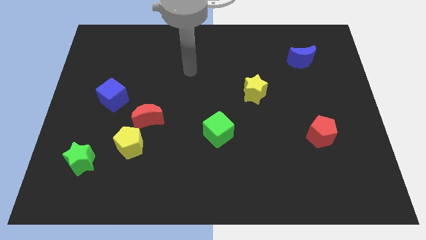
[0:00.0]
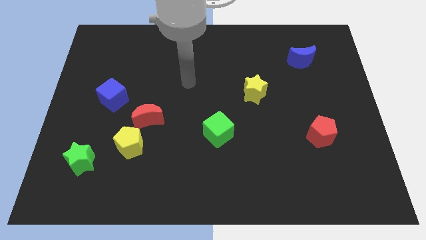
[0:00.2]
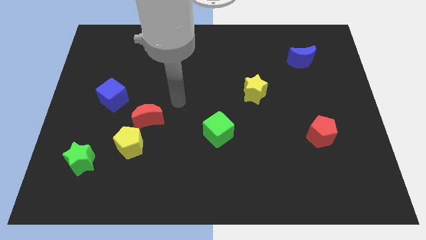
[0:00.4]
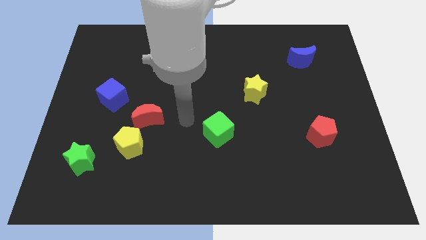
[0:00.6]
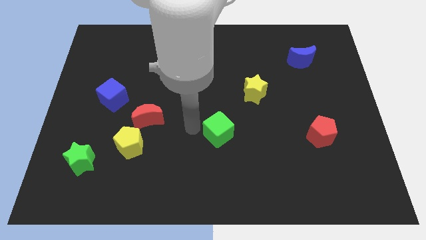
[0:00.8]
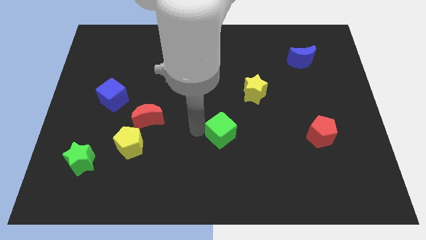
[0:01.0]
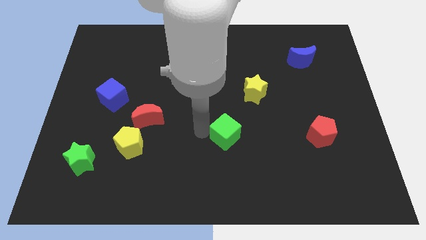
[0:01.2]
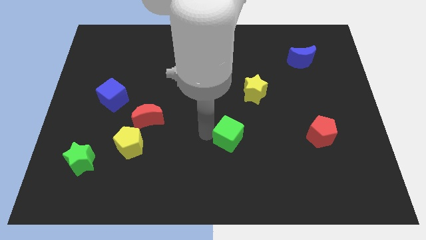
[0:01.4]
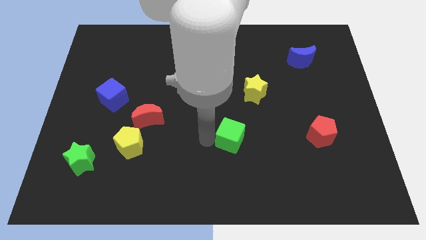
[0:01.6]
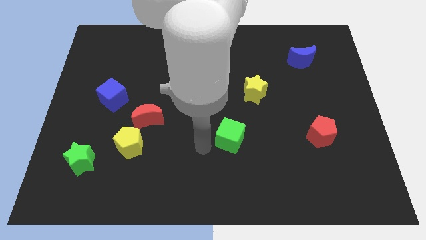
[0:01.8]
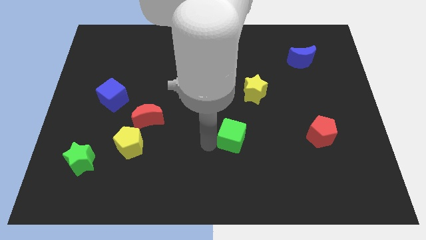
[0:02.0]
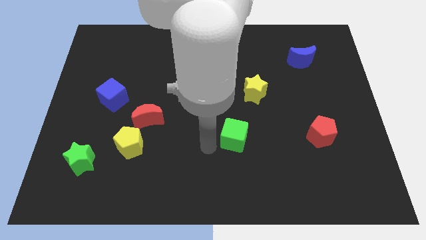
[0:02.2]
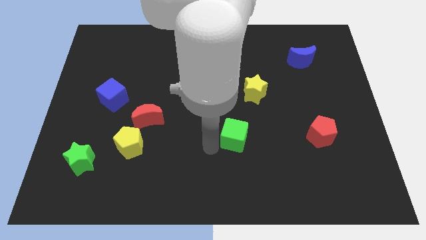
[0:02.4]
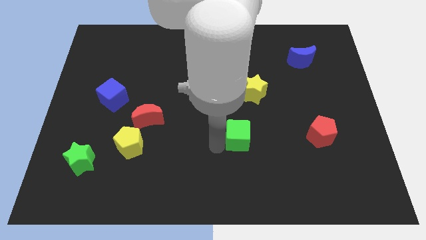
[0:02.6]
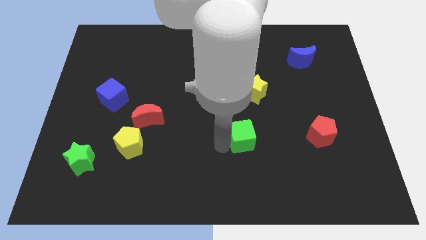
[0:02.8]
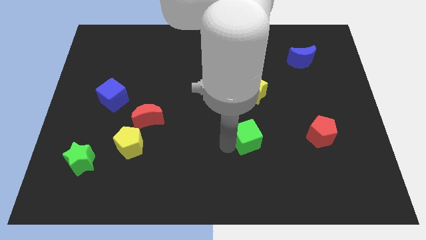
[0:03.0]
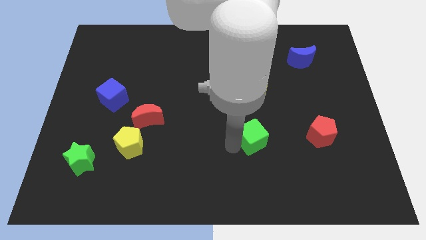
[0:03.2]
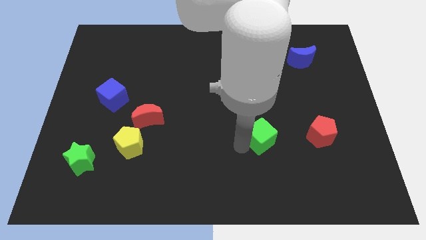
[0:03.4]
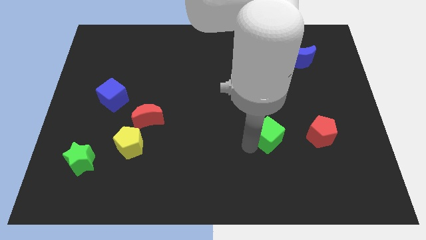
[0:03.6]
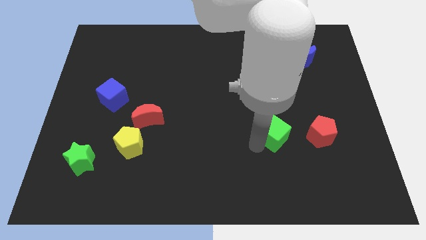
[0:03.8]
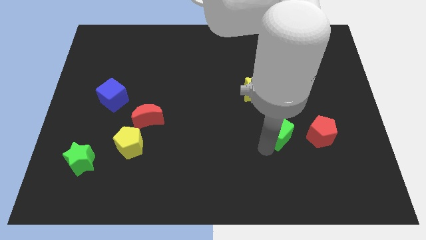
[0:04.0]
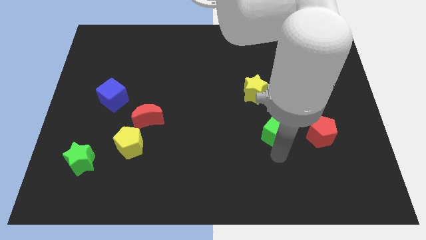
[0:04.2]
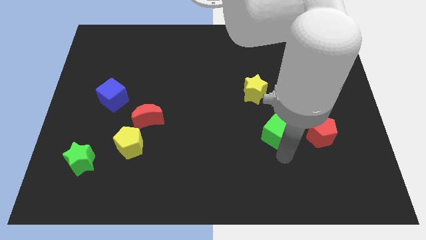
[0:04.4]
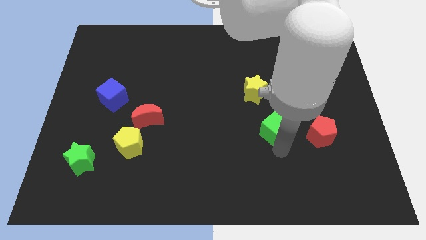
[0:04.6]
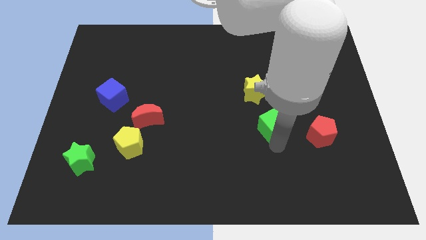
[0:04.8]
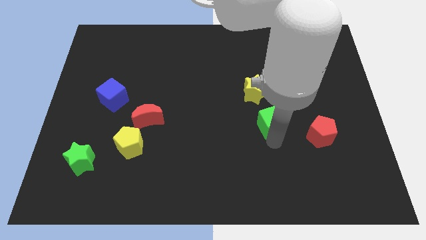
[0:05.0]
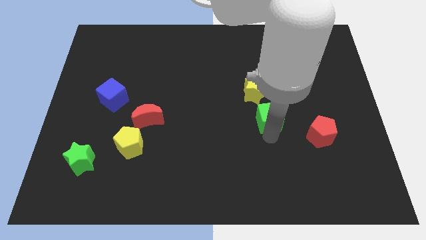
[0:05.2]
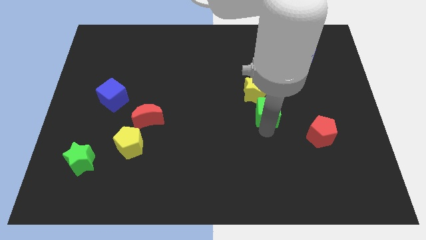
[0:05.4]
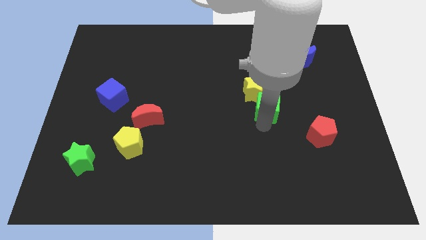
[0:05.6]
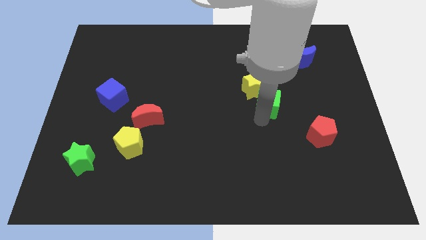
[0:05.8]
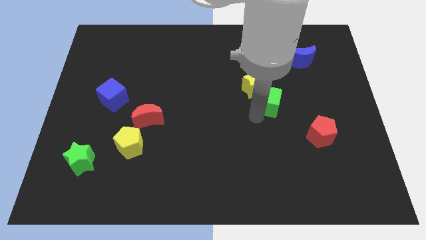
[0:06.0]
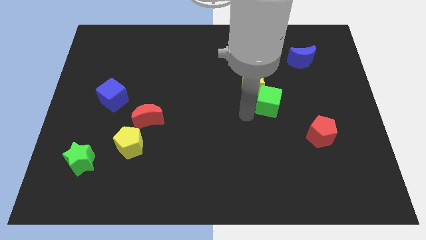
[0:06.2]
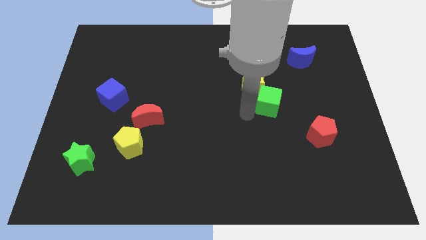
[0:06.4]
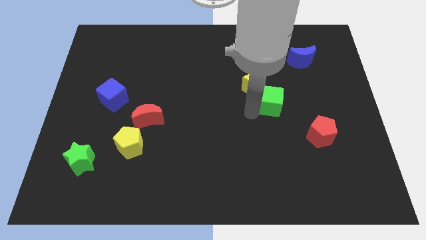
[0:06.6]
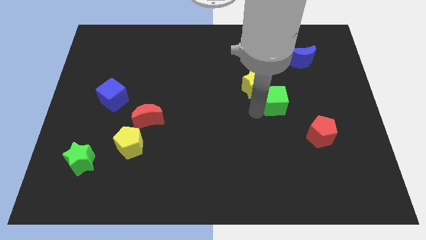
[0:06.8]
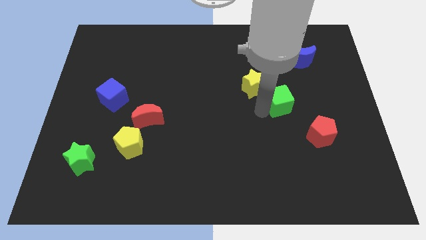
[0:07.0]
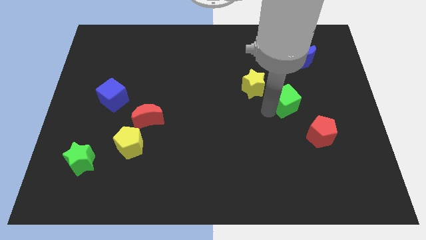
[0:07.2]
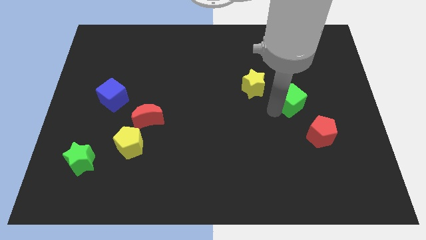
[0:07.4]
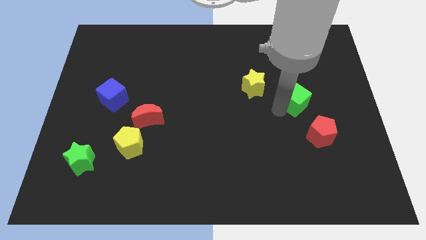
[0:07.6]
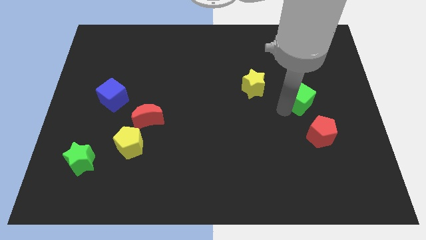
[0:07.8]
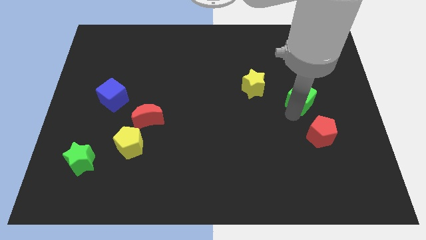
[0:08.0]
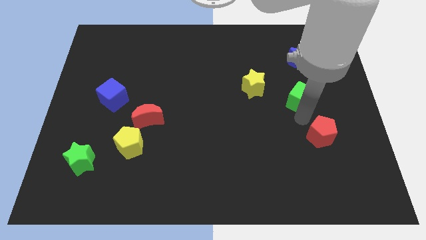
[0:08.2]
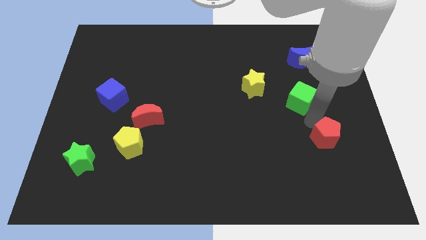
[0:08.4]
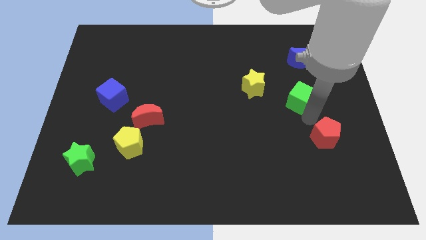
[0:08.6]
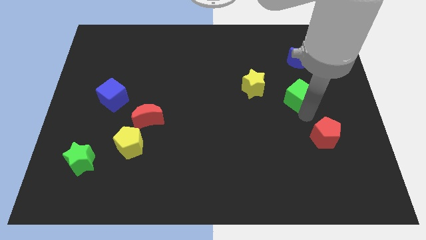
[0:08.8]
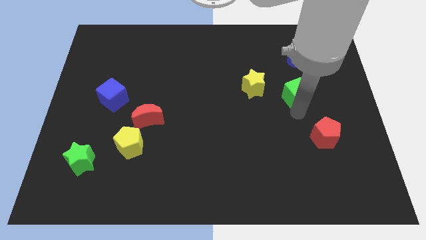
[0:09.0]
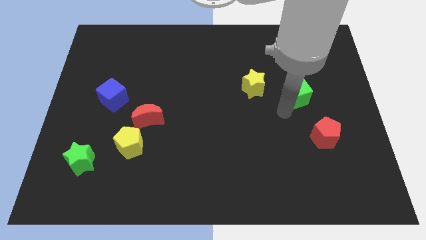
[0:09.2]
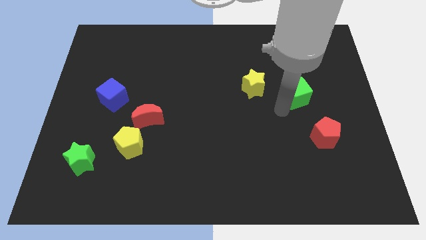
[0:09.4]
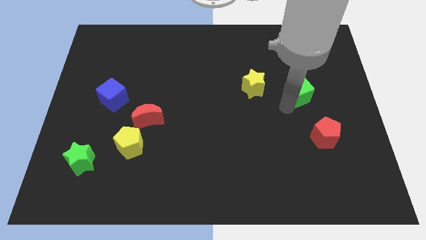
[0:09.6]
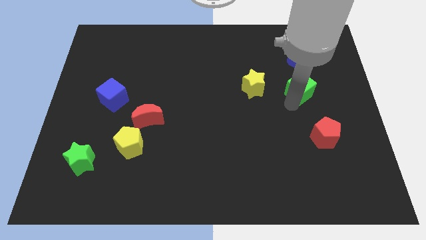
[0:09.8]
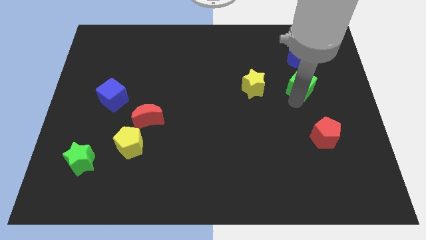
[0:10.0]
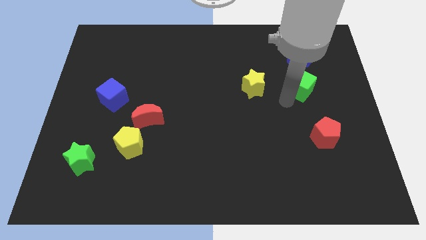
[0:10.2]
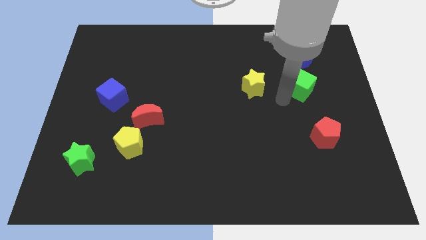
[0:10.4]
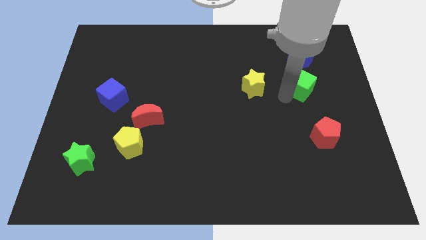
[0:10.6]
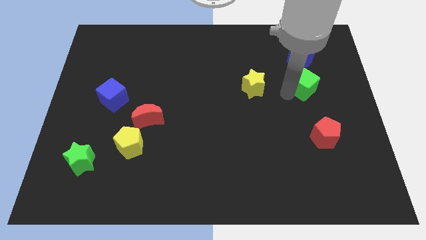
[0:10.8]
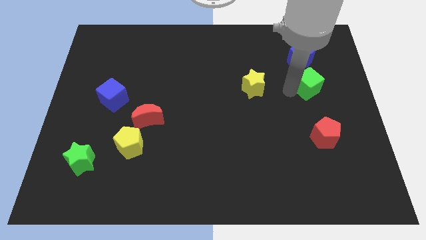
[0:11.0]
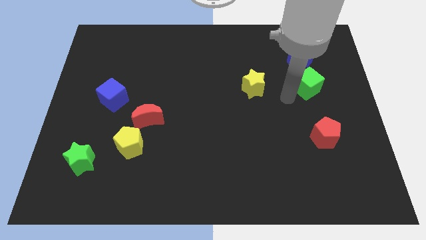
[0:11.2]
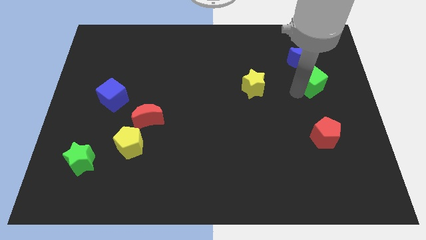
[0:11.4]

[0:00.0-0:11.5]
slide the green cube to the bottom right of the blue moon

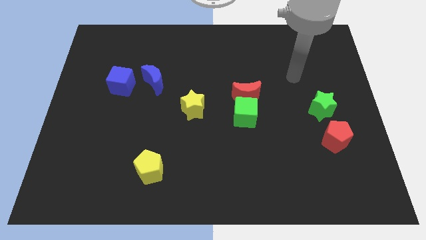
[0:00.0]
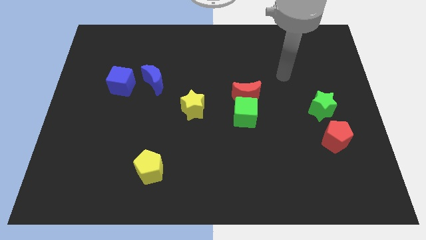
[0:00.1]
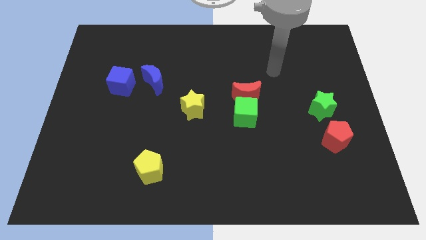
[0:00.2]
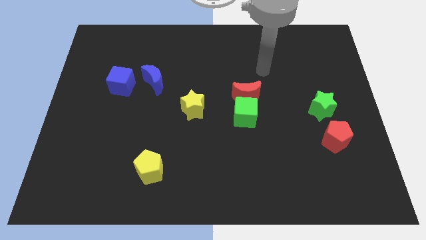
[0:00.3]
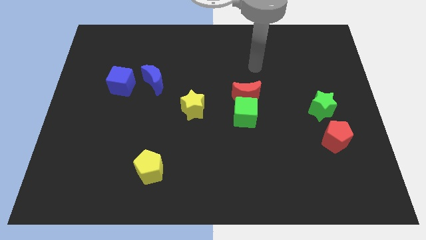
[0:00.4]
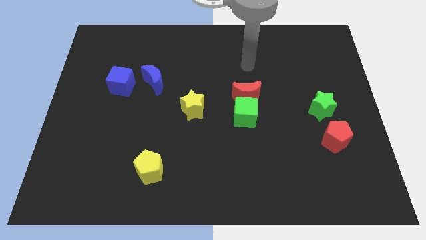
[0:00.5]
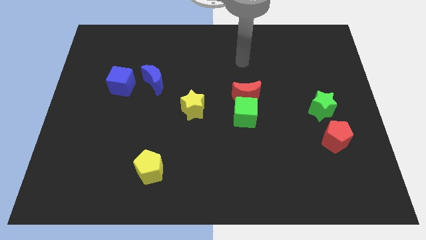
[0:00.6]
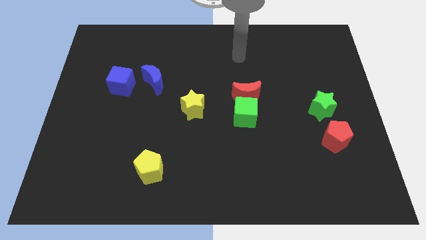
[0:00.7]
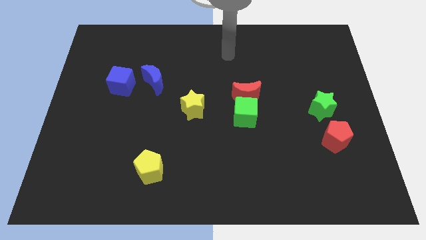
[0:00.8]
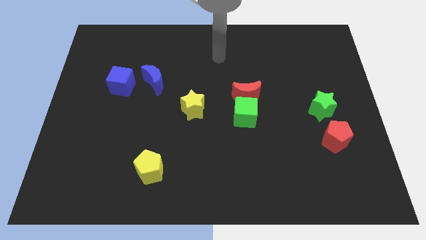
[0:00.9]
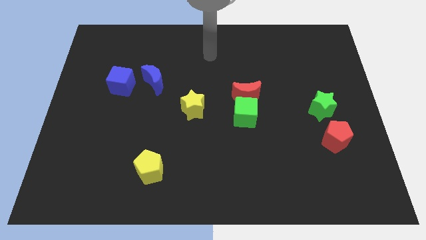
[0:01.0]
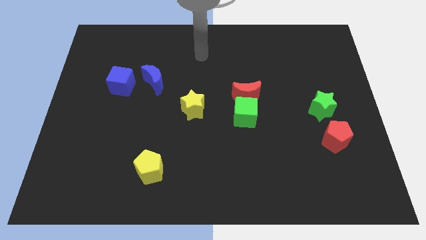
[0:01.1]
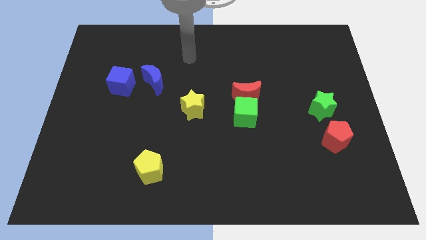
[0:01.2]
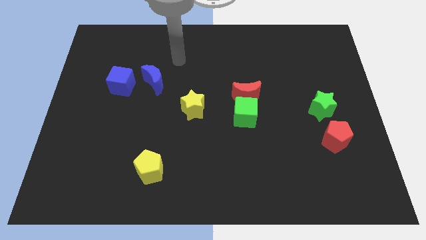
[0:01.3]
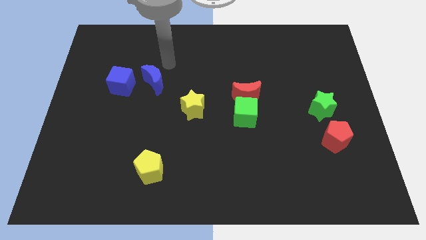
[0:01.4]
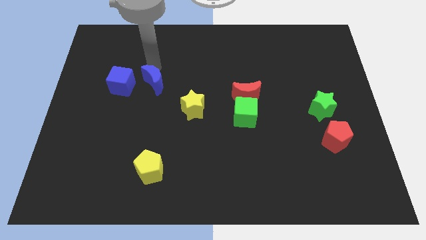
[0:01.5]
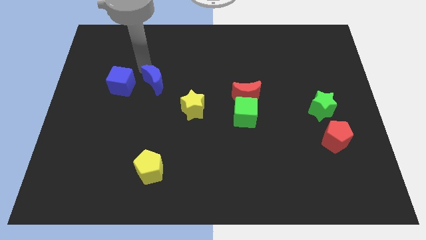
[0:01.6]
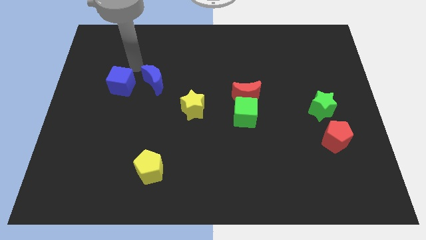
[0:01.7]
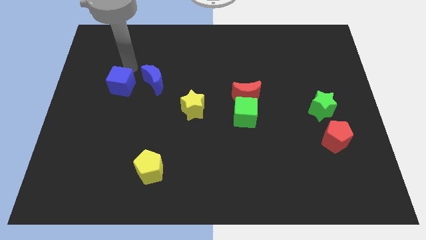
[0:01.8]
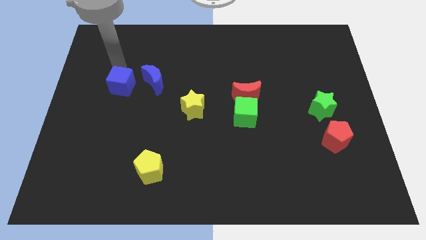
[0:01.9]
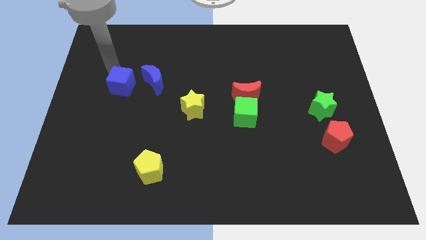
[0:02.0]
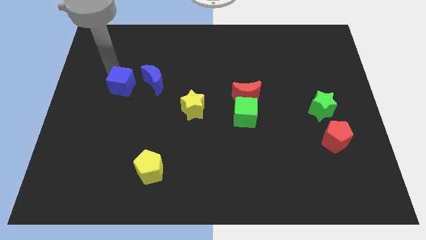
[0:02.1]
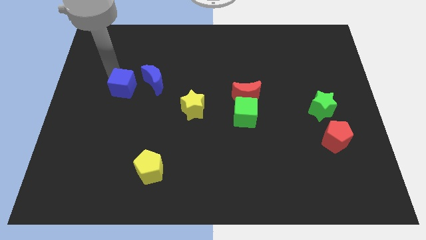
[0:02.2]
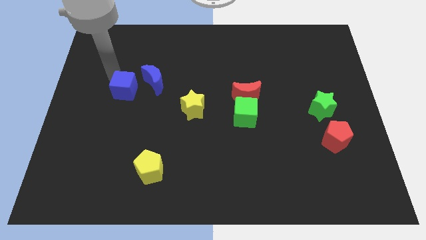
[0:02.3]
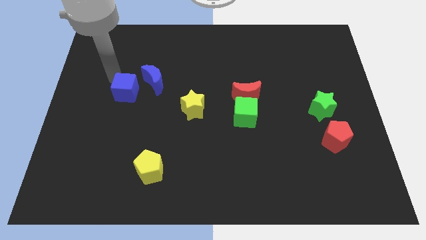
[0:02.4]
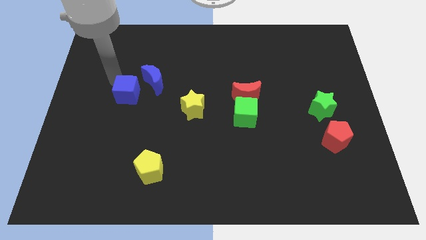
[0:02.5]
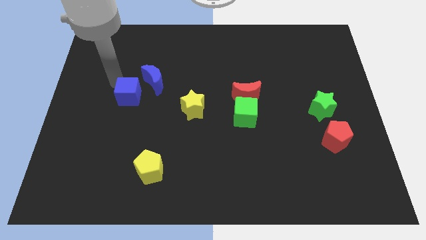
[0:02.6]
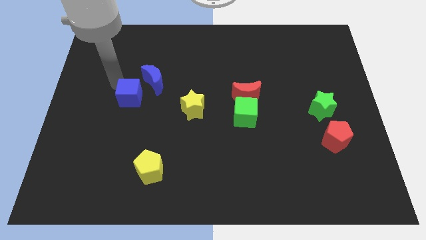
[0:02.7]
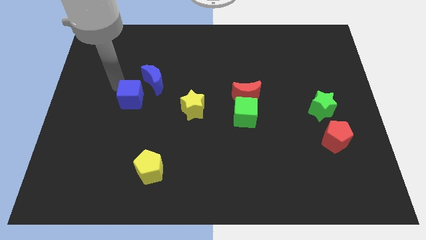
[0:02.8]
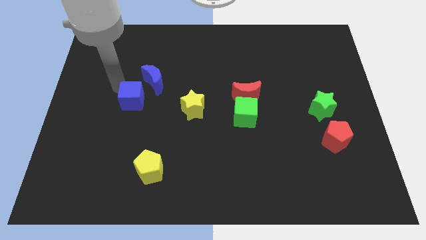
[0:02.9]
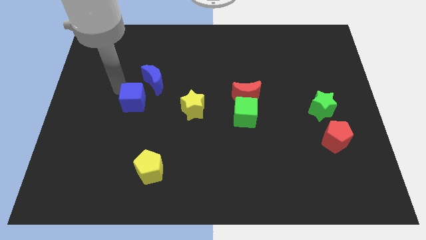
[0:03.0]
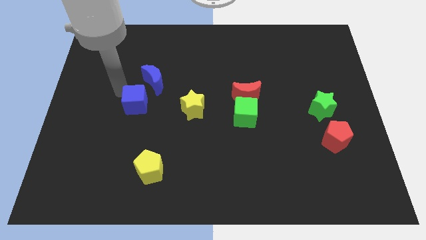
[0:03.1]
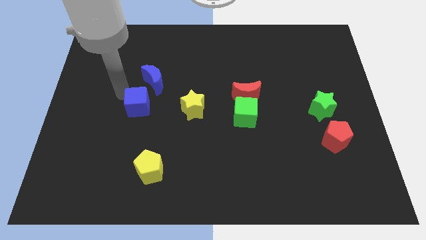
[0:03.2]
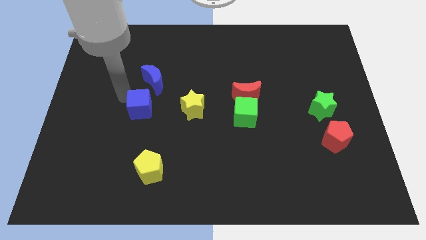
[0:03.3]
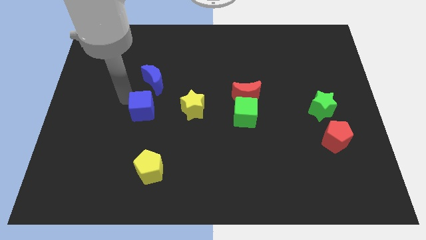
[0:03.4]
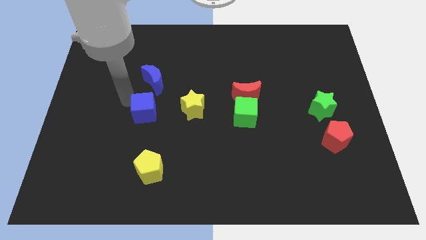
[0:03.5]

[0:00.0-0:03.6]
move the blue cube to the top of the yellow pentagon
